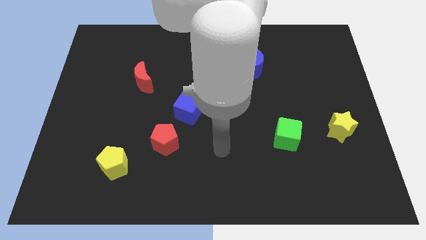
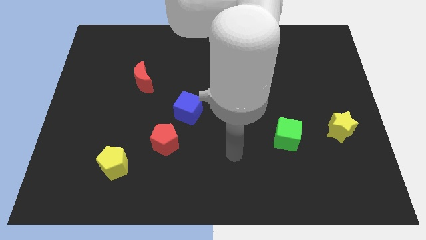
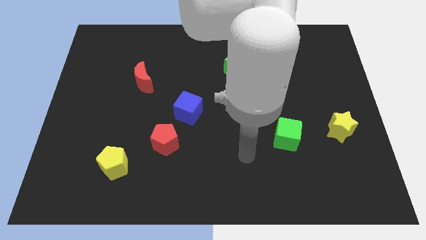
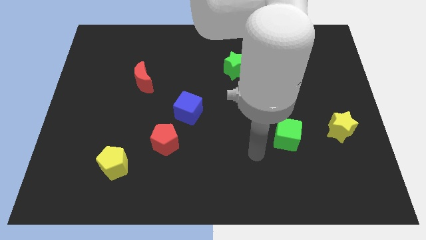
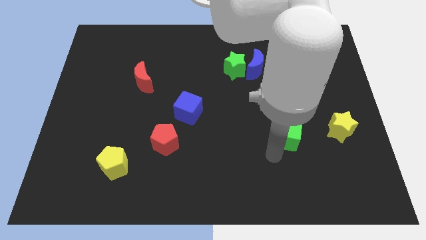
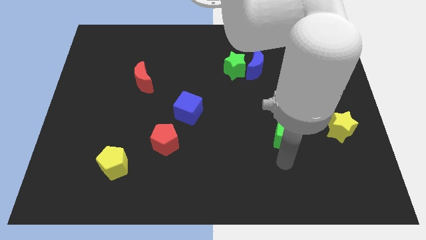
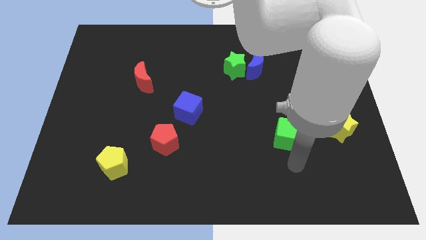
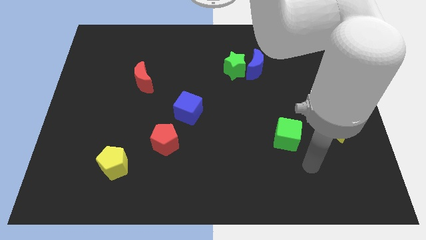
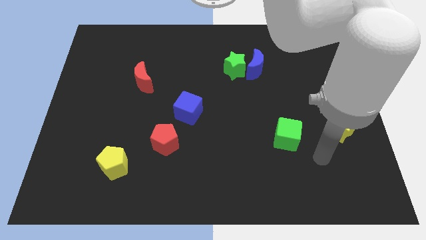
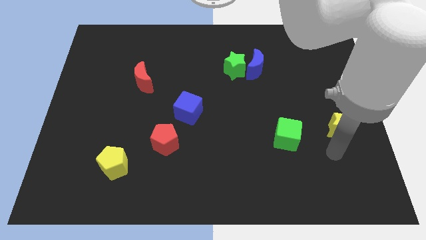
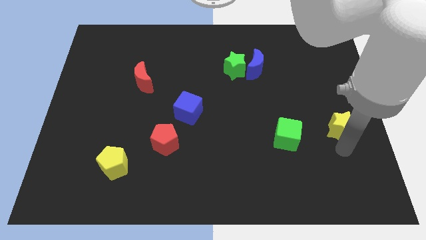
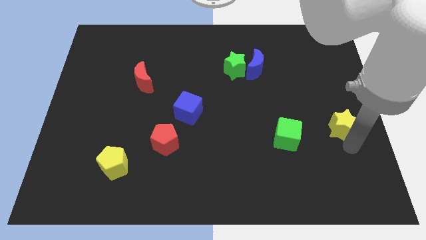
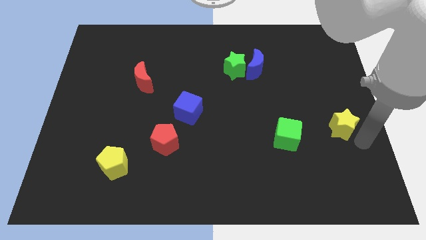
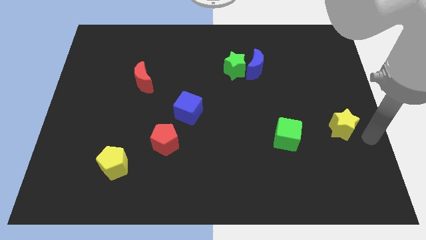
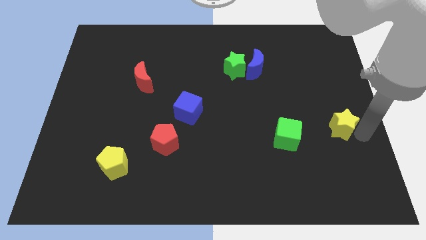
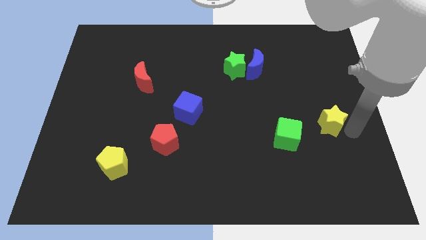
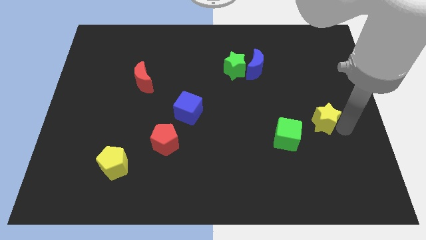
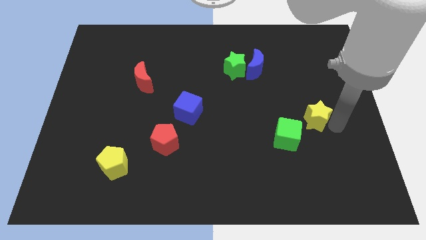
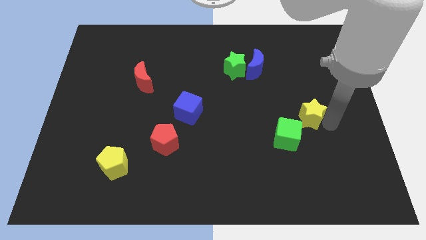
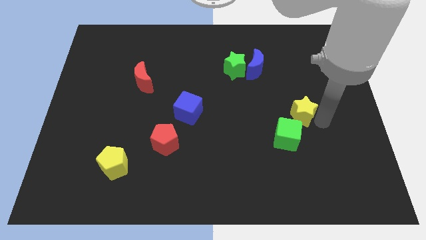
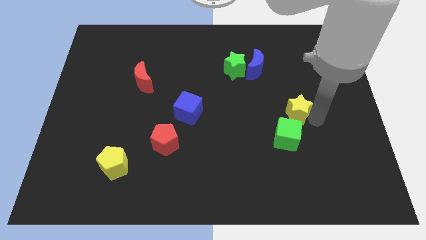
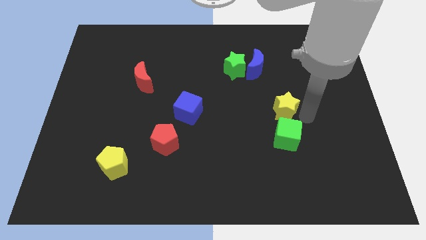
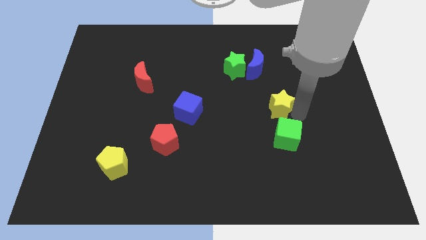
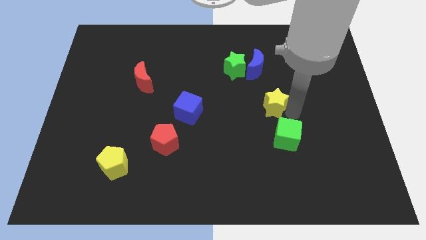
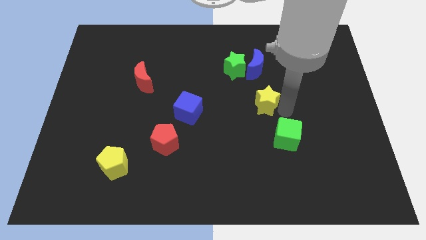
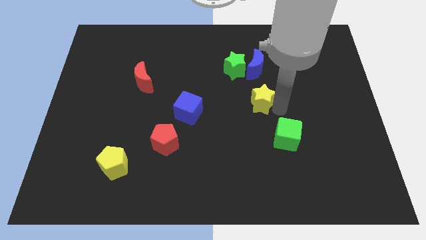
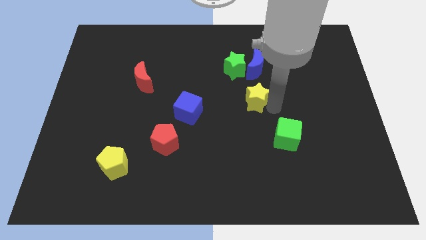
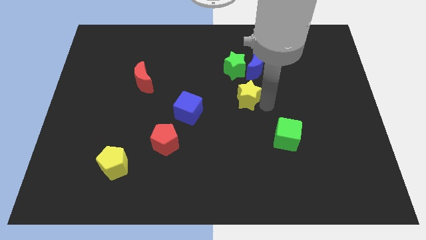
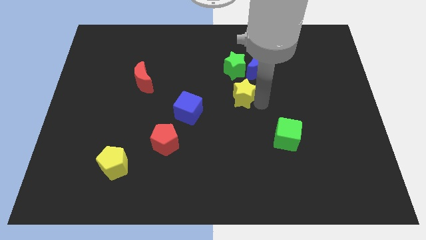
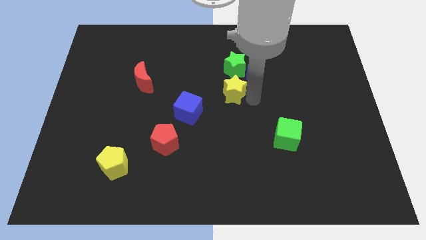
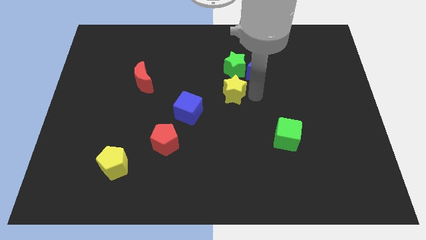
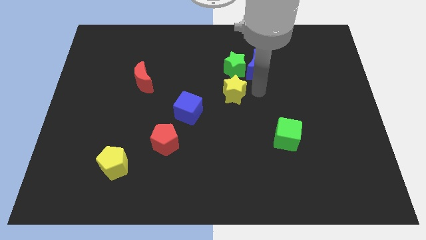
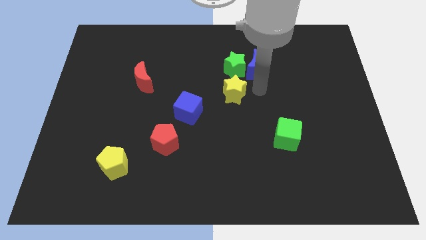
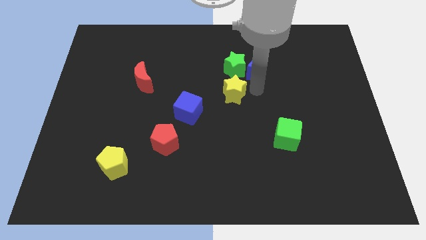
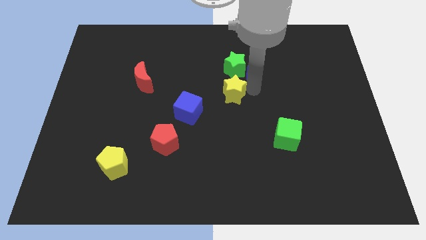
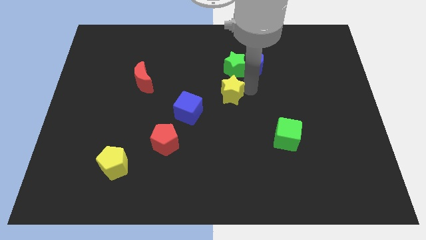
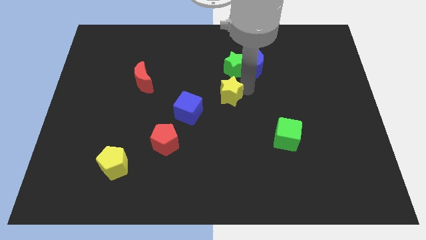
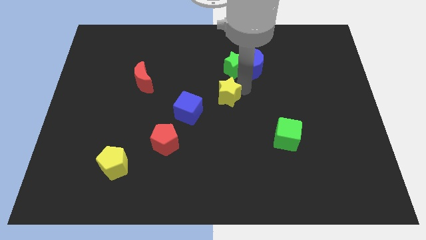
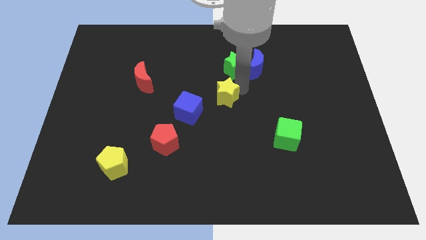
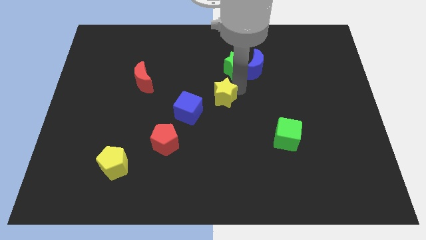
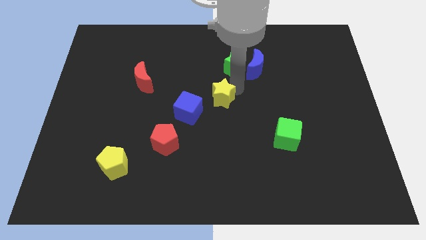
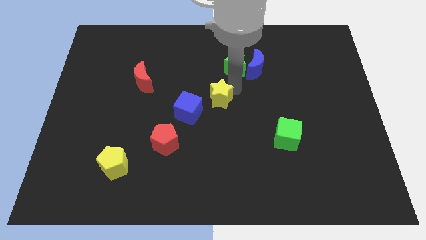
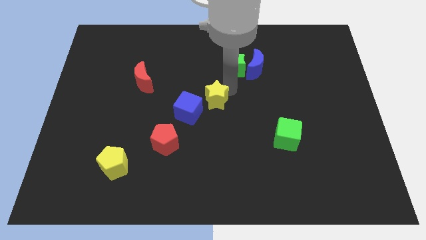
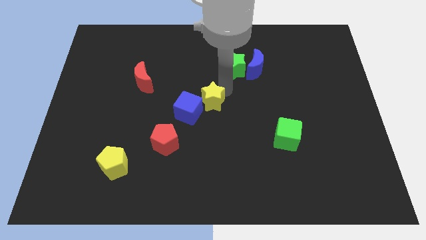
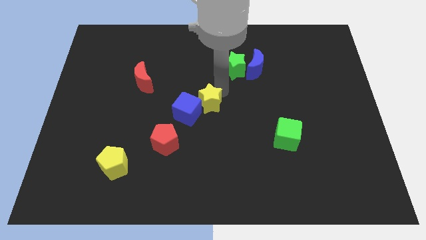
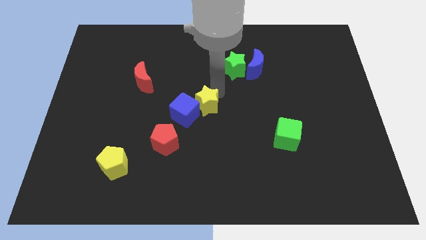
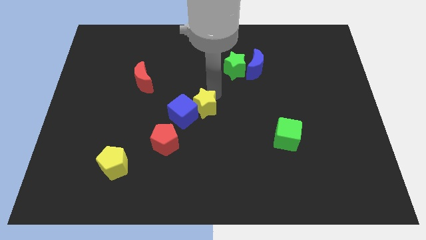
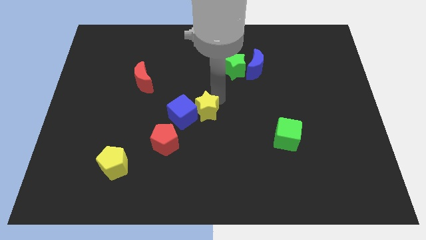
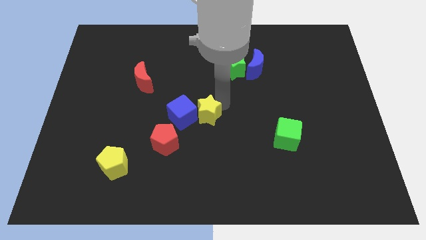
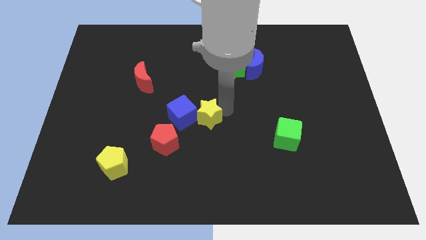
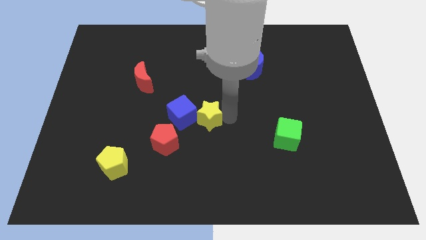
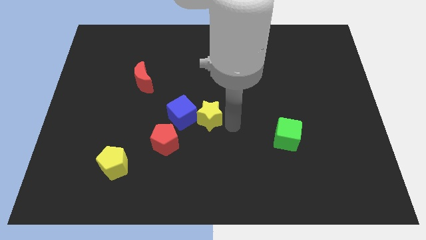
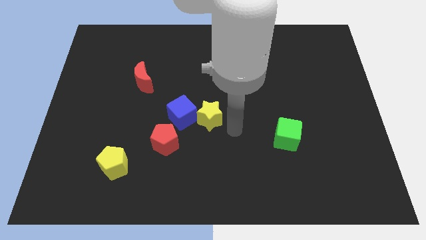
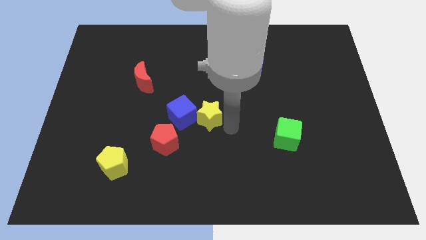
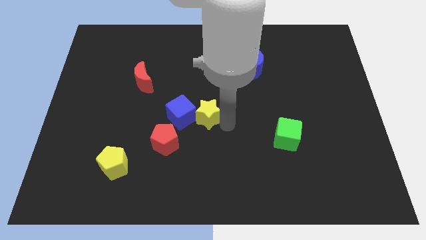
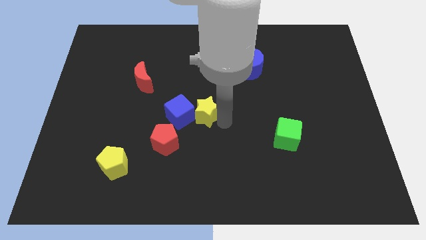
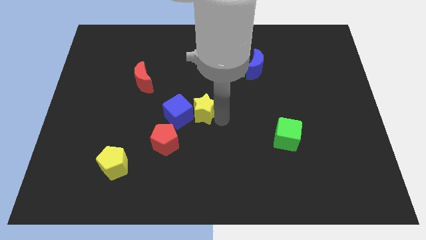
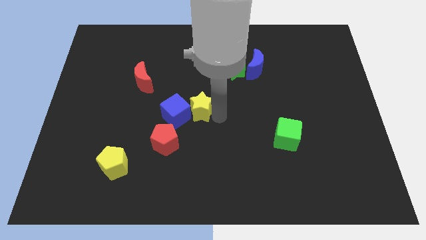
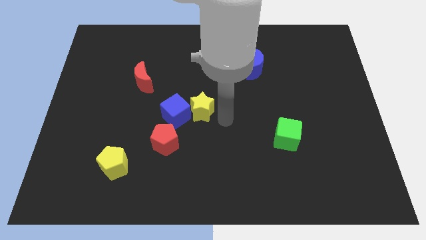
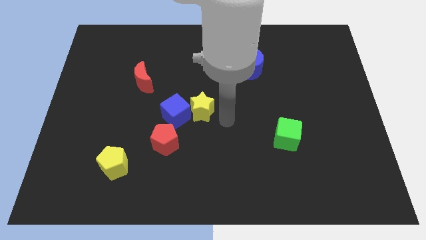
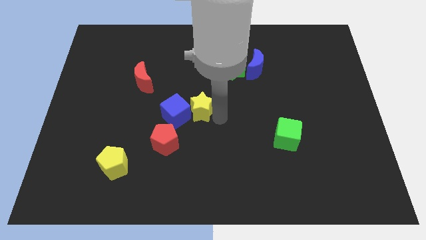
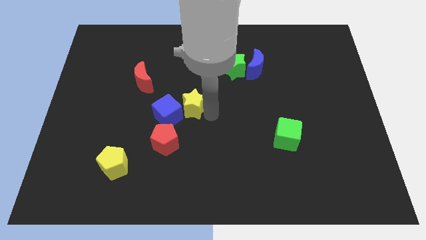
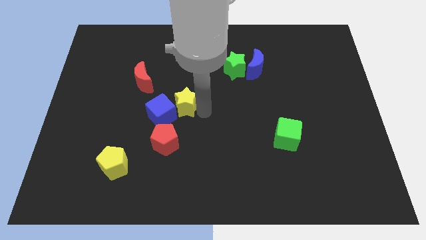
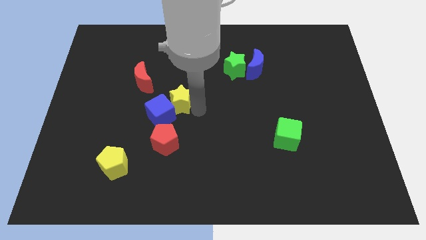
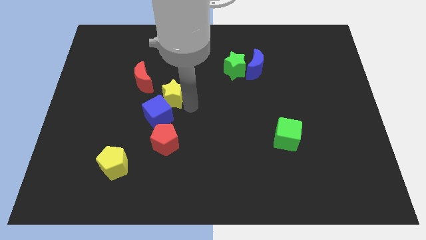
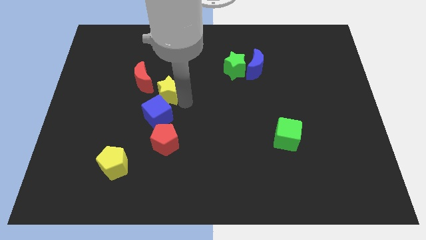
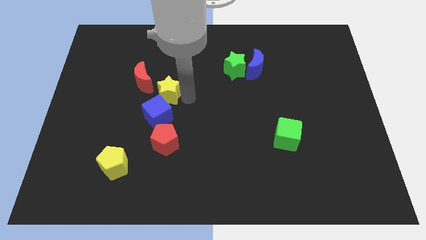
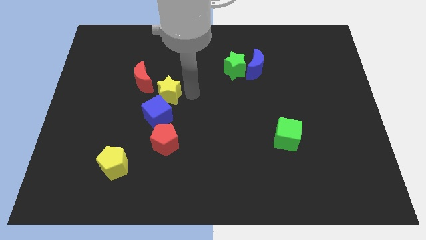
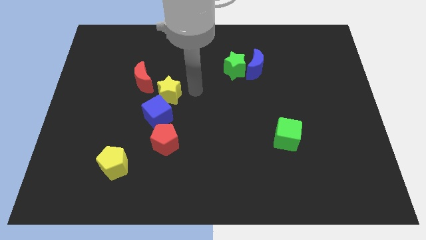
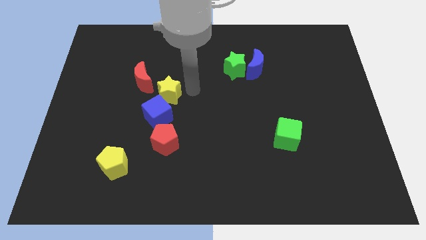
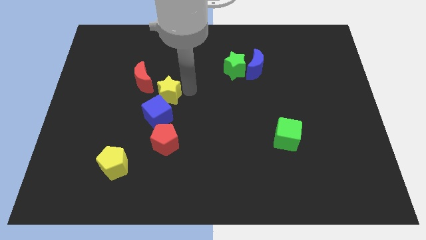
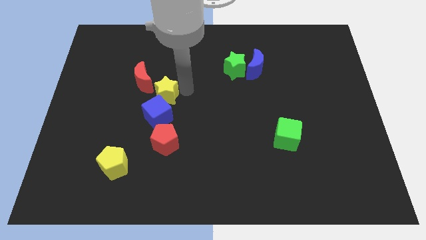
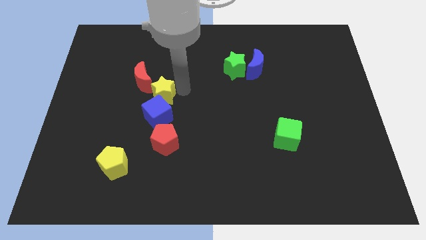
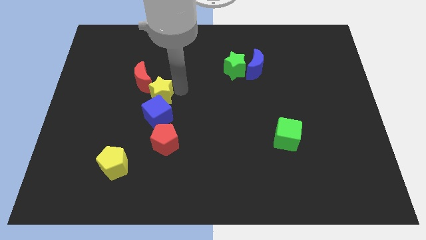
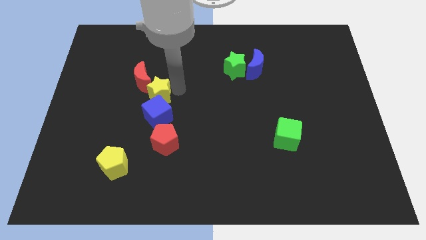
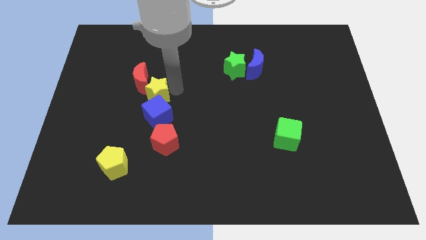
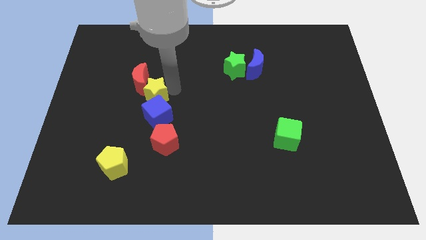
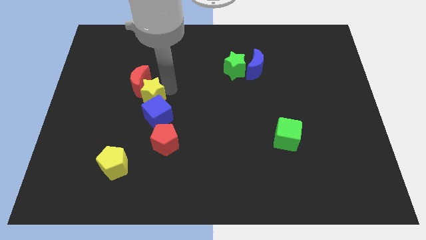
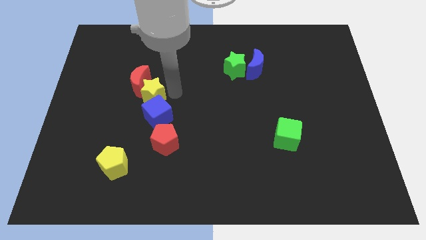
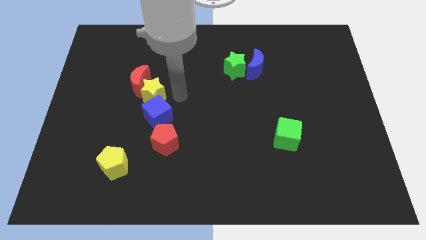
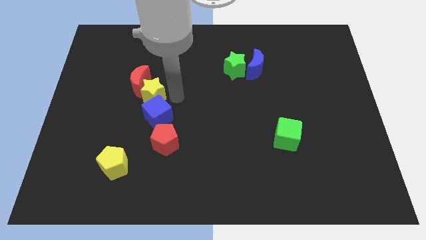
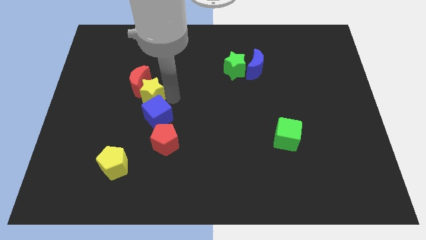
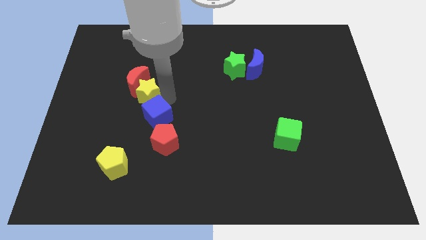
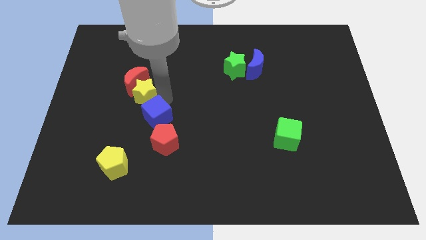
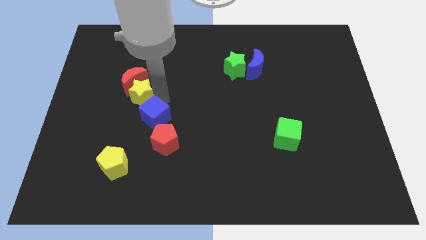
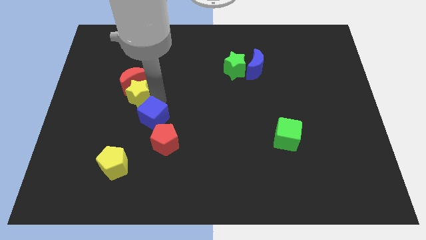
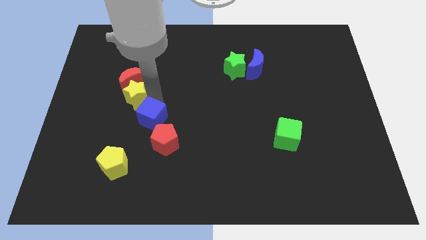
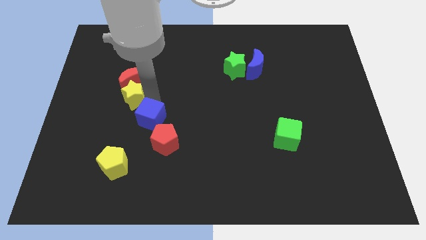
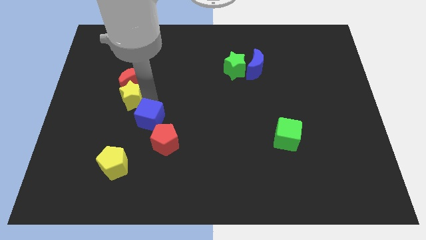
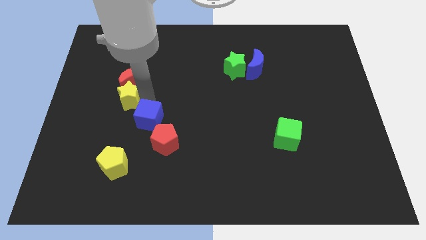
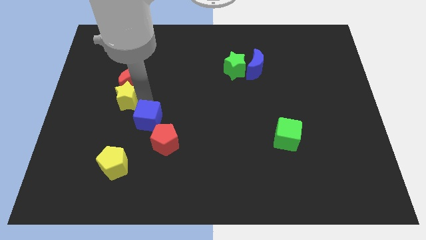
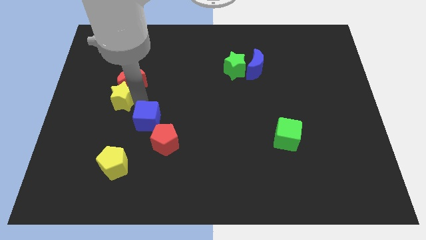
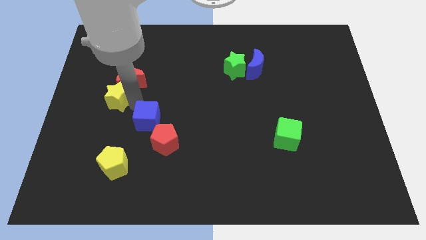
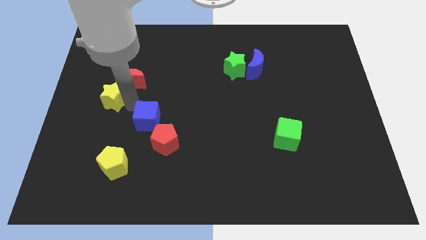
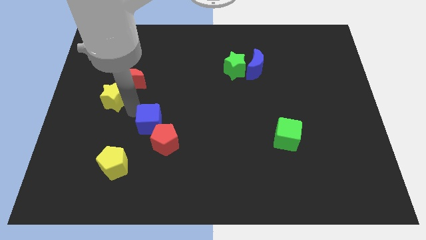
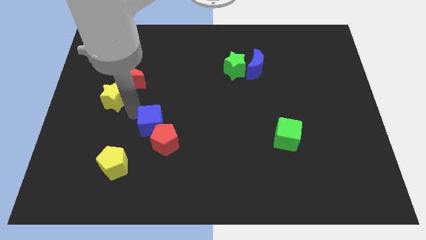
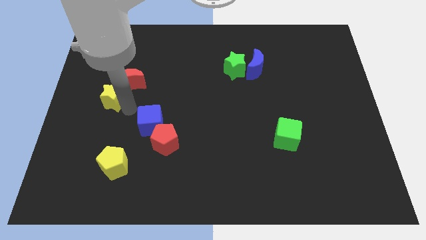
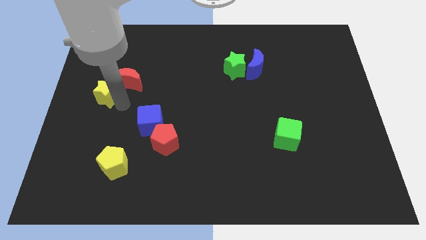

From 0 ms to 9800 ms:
move the yellow star to the left of the red moon
